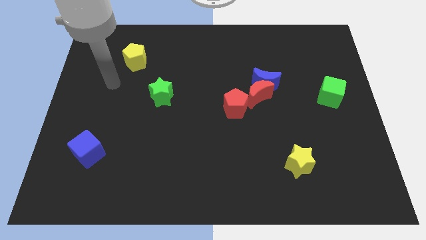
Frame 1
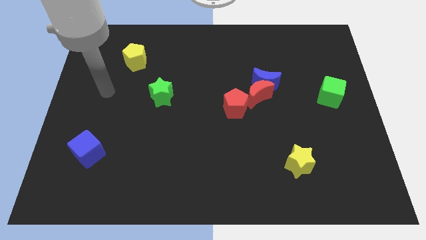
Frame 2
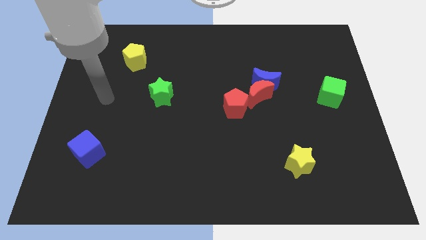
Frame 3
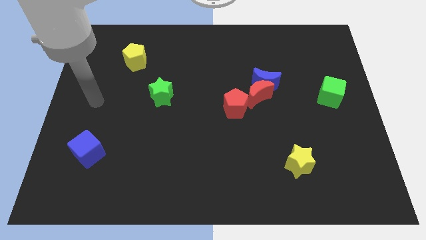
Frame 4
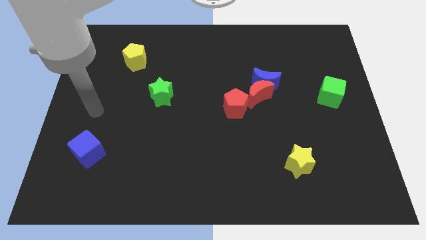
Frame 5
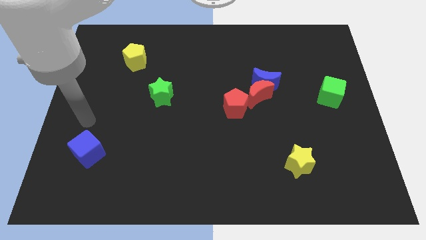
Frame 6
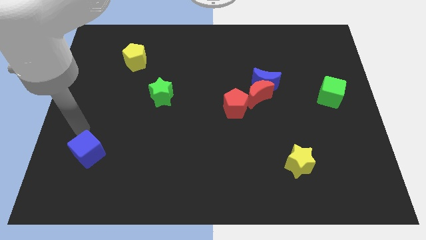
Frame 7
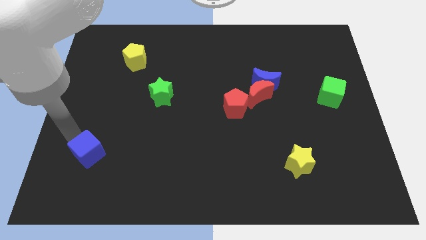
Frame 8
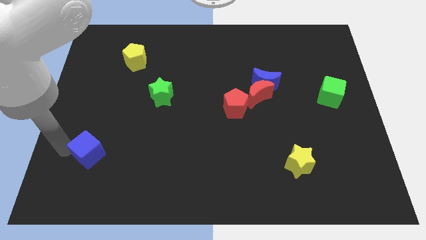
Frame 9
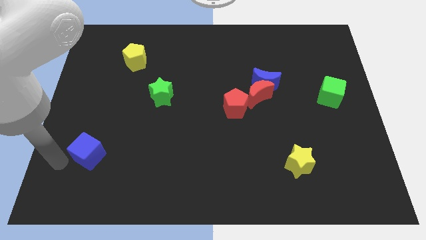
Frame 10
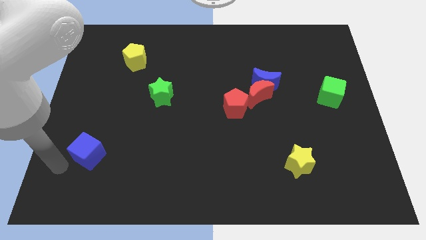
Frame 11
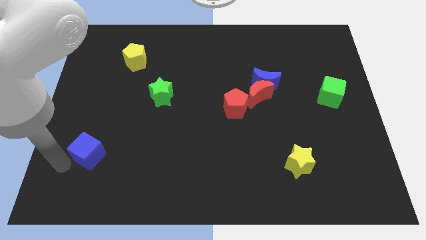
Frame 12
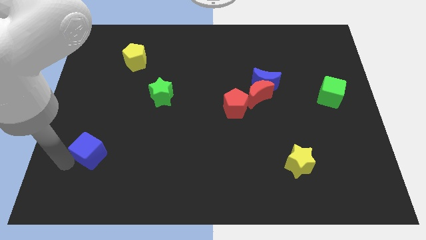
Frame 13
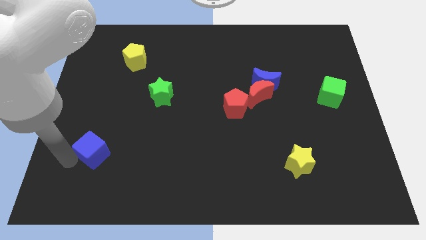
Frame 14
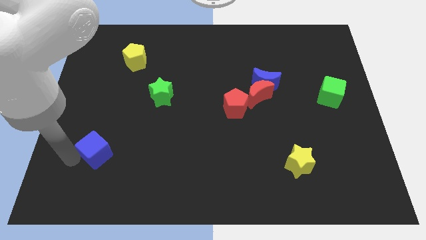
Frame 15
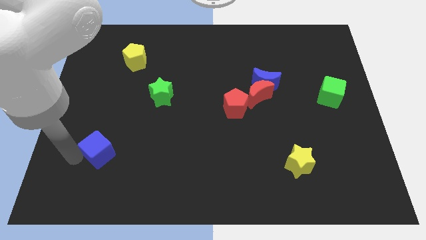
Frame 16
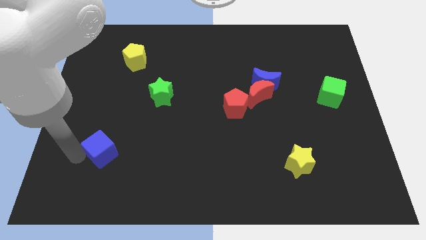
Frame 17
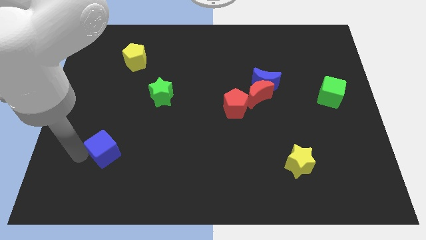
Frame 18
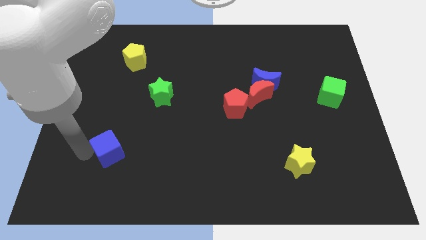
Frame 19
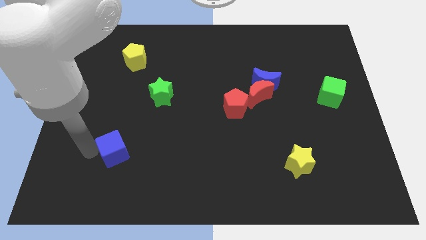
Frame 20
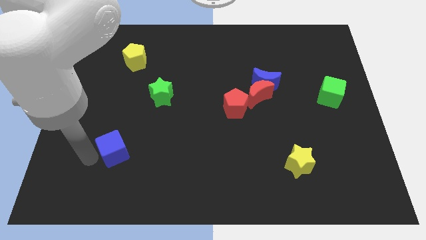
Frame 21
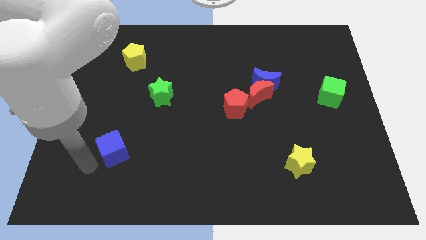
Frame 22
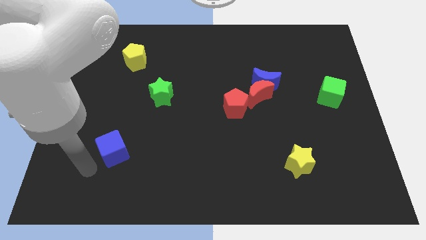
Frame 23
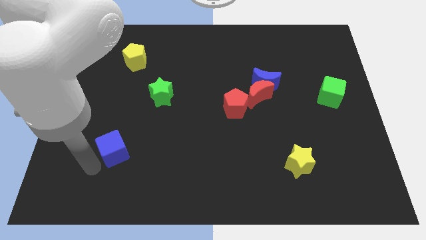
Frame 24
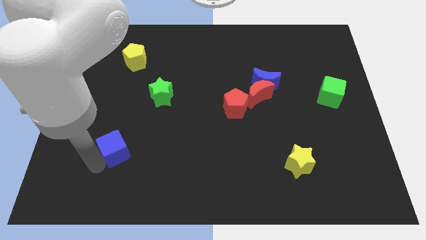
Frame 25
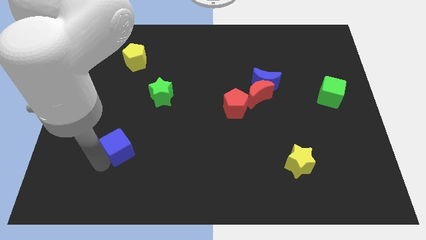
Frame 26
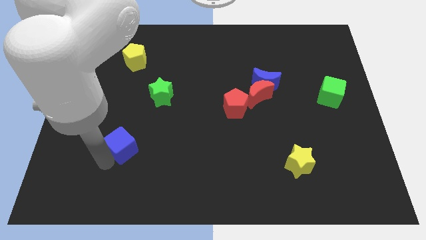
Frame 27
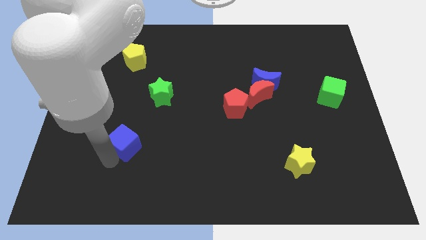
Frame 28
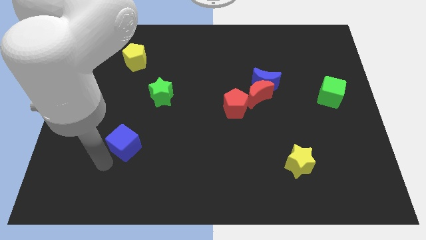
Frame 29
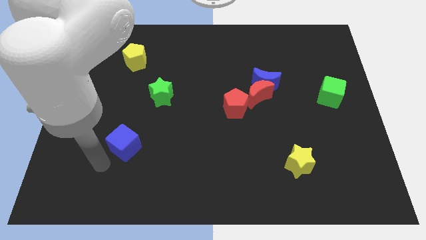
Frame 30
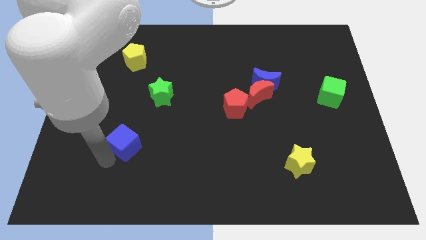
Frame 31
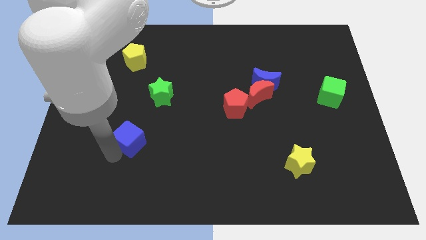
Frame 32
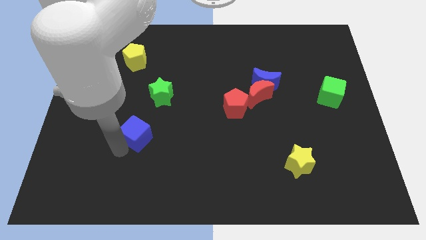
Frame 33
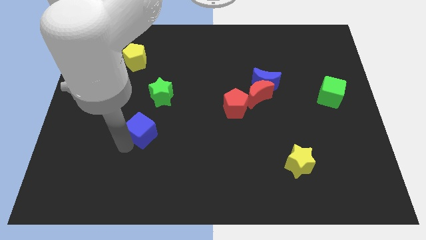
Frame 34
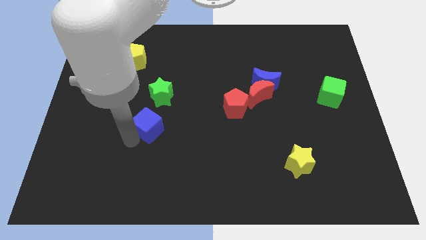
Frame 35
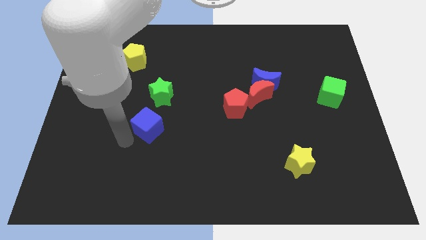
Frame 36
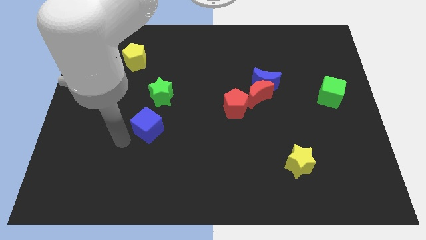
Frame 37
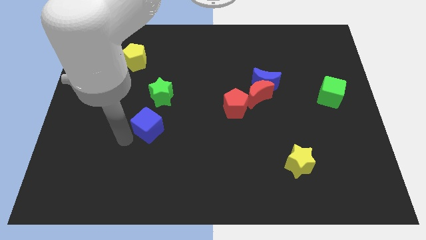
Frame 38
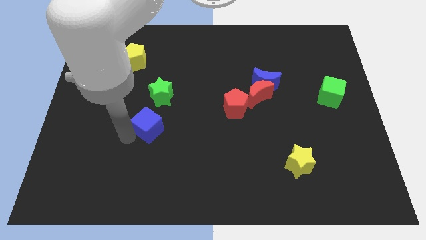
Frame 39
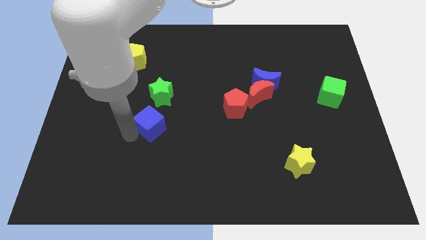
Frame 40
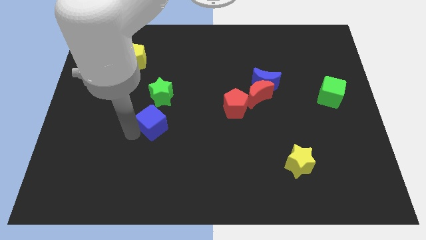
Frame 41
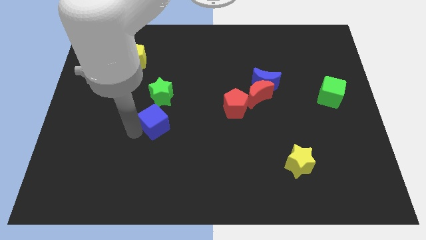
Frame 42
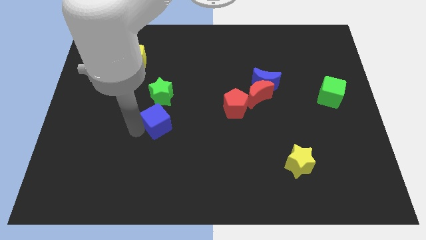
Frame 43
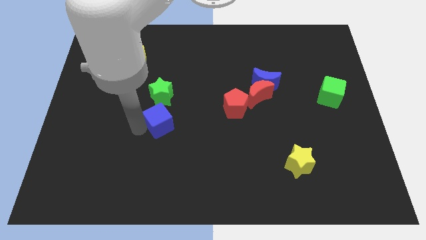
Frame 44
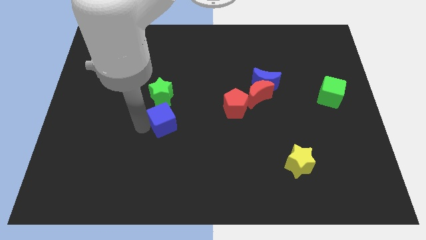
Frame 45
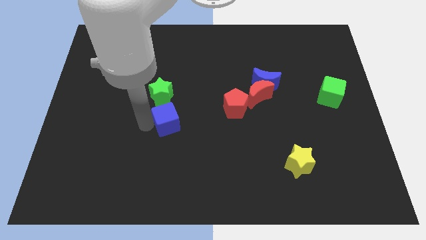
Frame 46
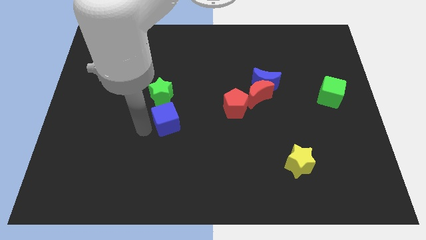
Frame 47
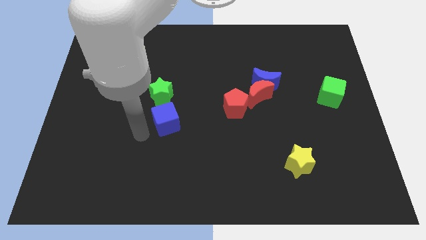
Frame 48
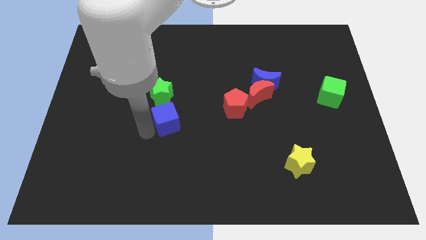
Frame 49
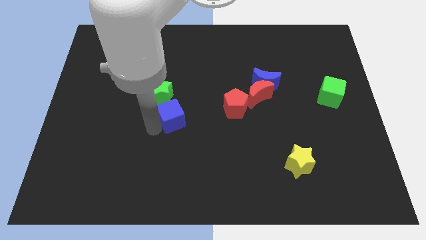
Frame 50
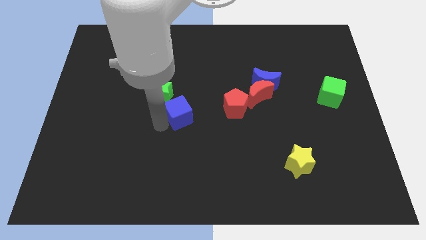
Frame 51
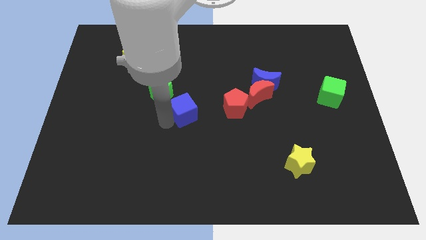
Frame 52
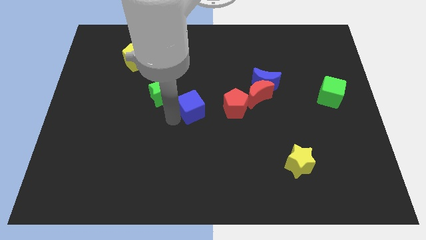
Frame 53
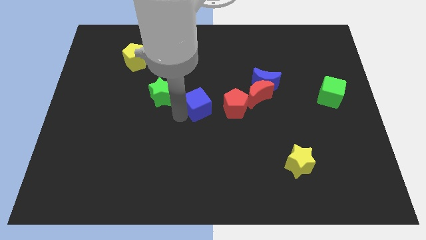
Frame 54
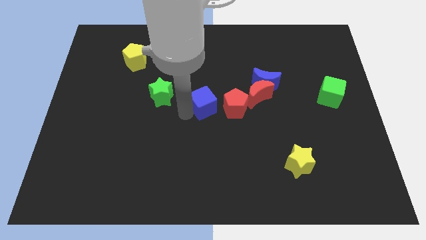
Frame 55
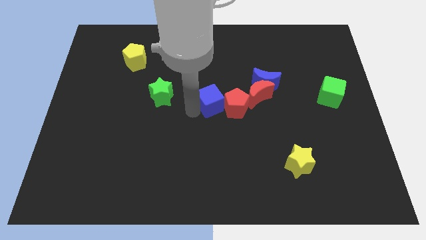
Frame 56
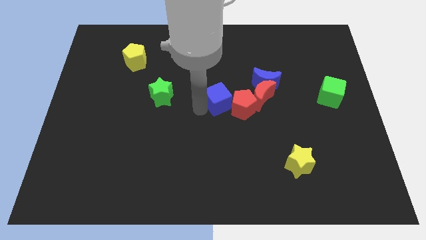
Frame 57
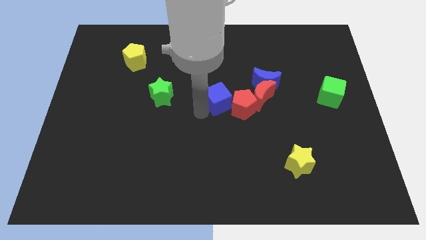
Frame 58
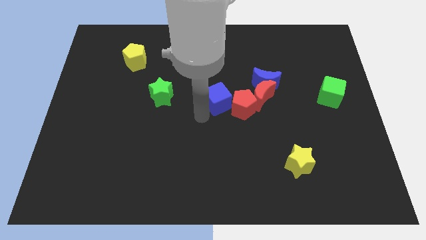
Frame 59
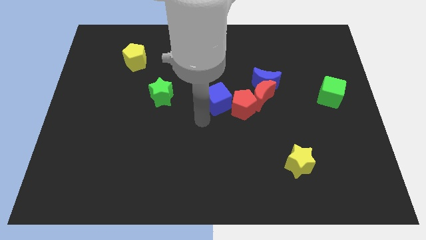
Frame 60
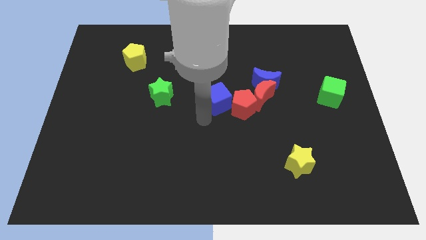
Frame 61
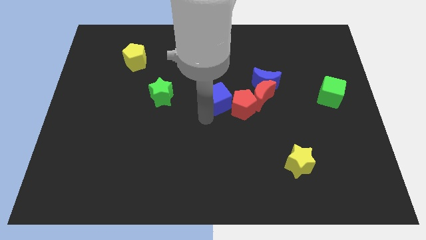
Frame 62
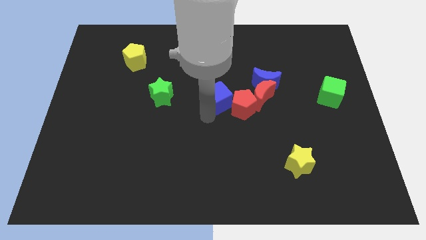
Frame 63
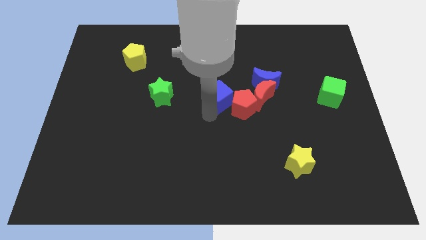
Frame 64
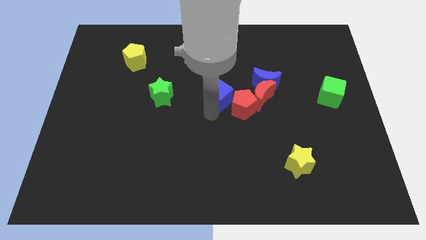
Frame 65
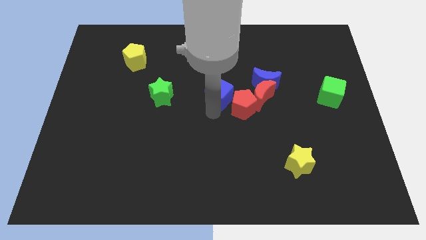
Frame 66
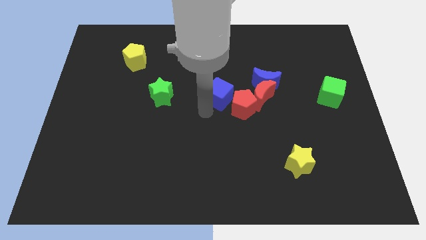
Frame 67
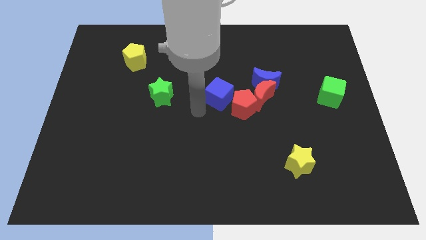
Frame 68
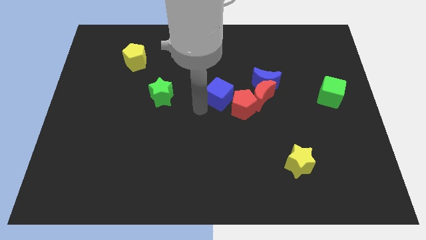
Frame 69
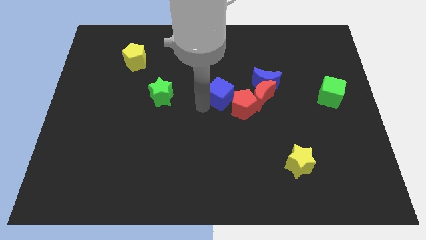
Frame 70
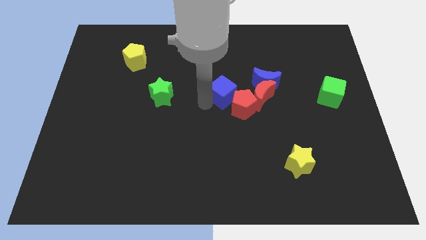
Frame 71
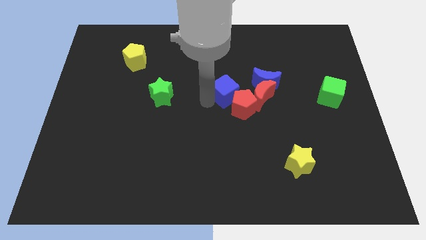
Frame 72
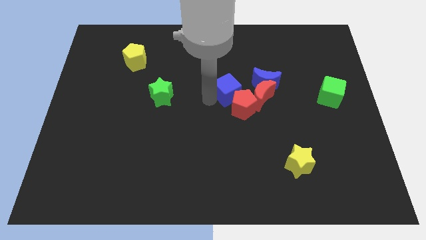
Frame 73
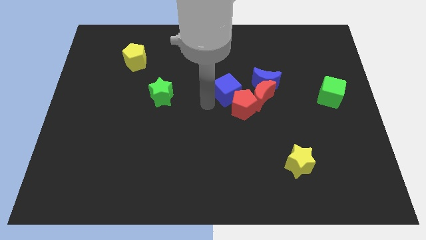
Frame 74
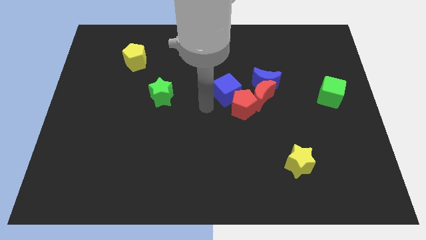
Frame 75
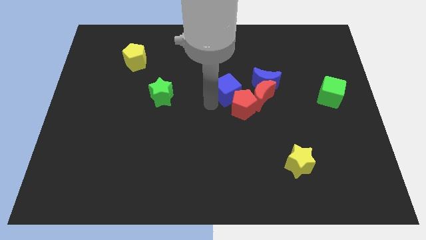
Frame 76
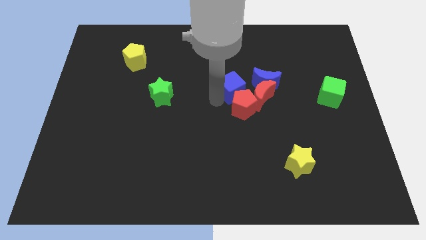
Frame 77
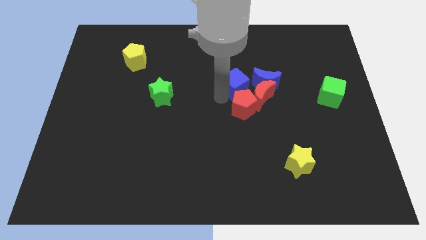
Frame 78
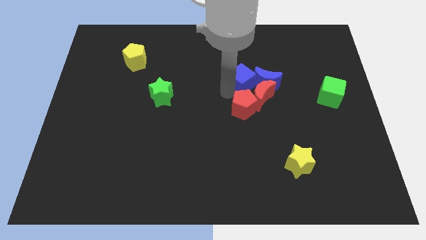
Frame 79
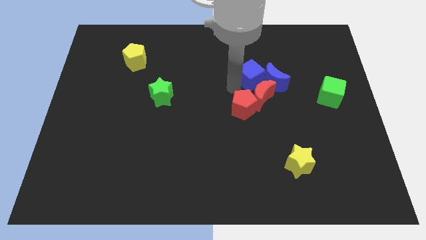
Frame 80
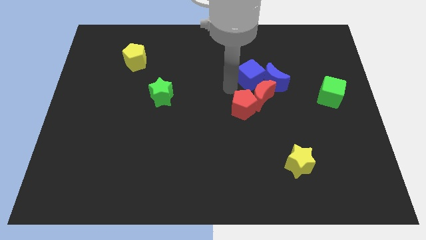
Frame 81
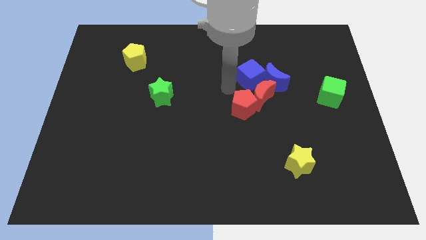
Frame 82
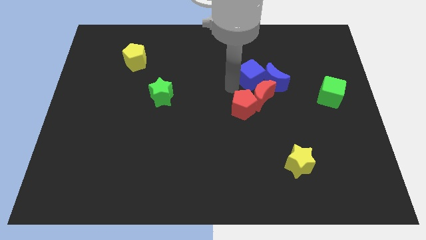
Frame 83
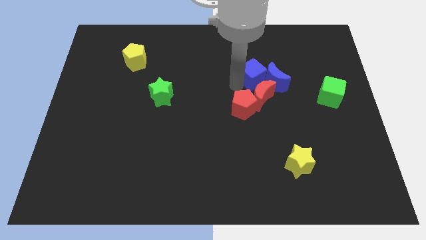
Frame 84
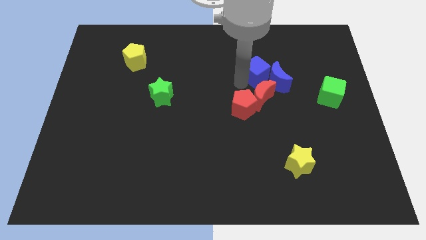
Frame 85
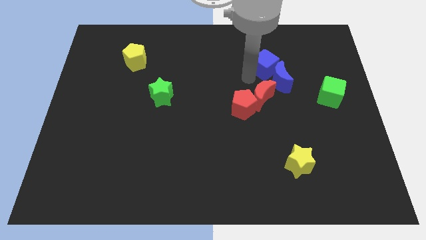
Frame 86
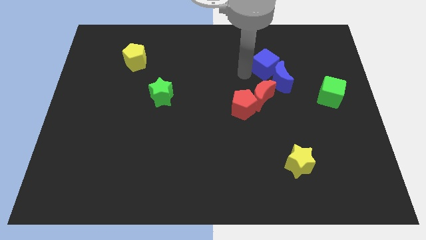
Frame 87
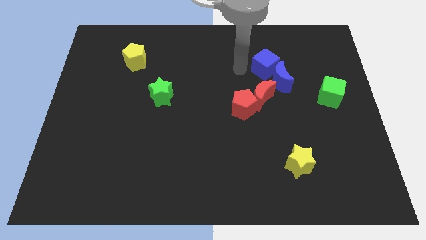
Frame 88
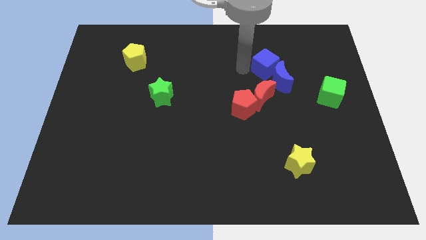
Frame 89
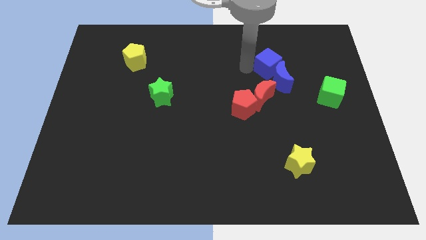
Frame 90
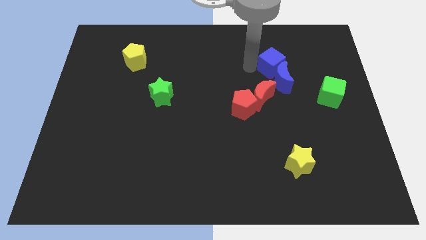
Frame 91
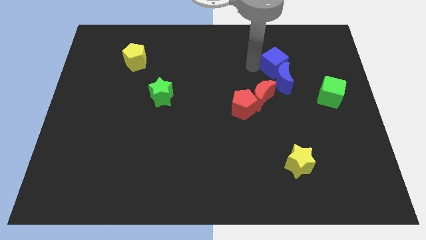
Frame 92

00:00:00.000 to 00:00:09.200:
move the blue cube to the top right of the blue moon
